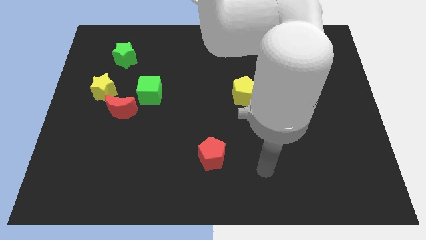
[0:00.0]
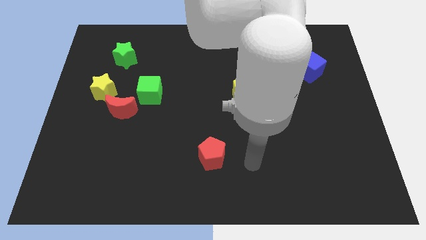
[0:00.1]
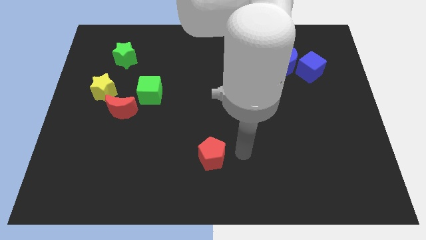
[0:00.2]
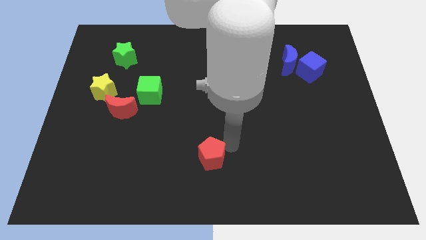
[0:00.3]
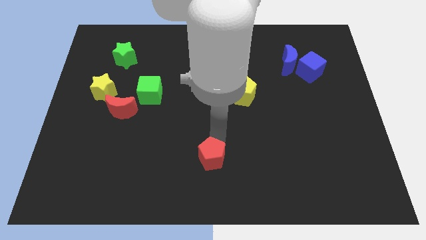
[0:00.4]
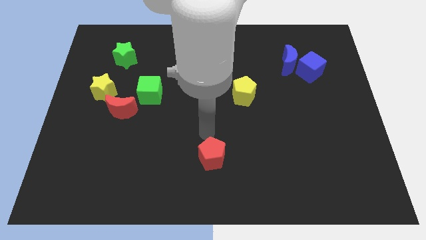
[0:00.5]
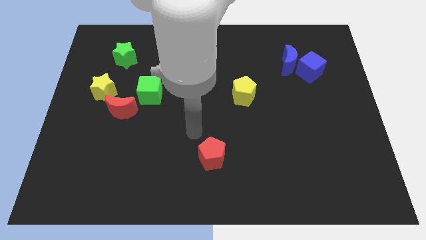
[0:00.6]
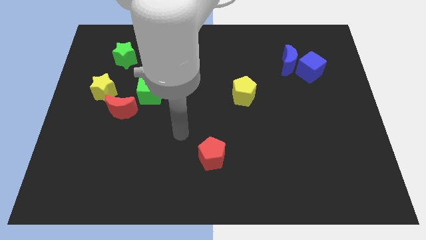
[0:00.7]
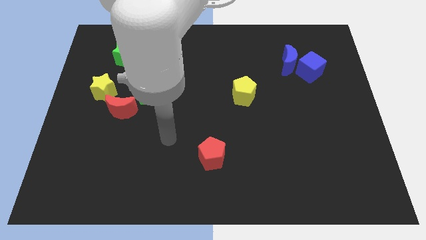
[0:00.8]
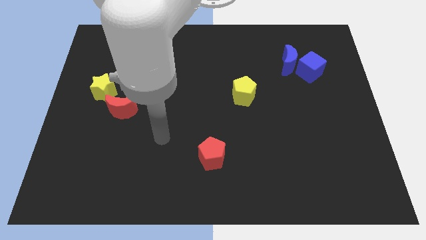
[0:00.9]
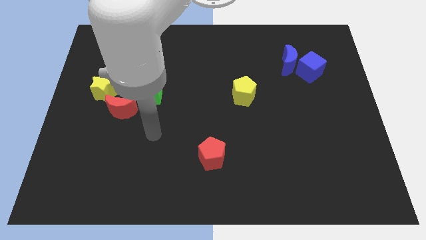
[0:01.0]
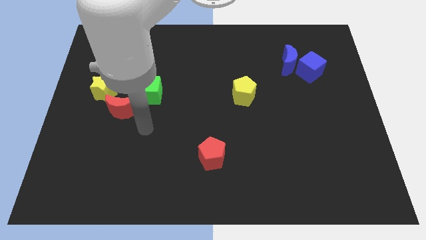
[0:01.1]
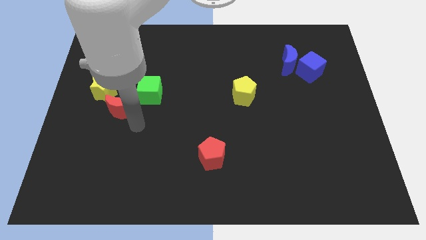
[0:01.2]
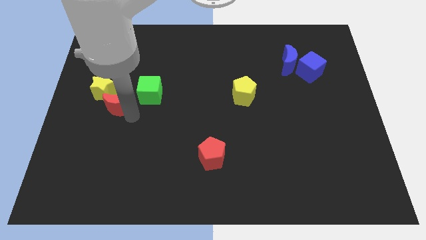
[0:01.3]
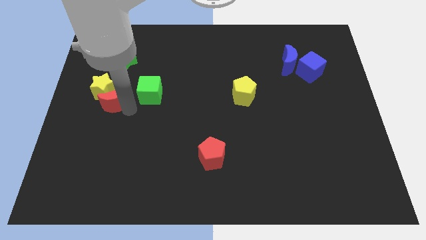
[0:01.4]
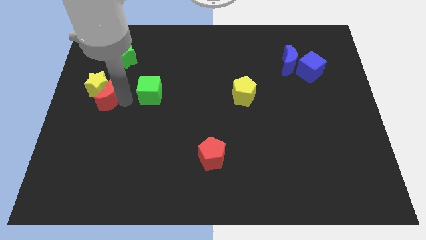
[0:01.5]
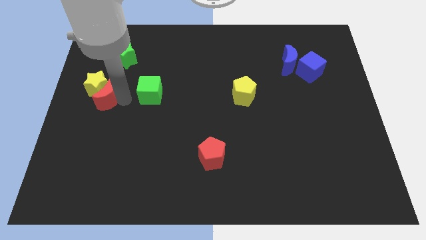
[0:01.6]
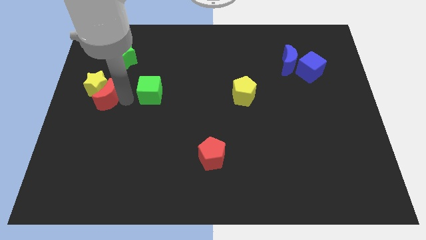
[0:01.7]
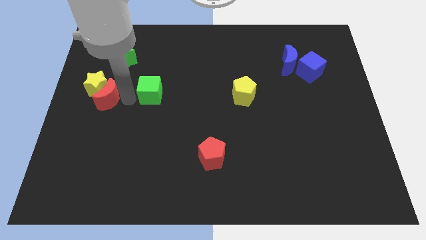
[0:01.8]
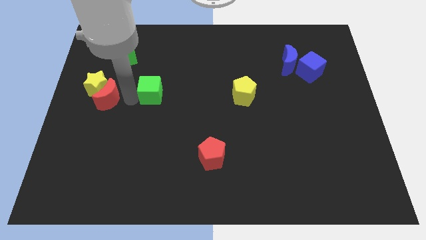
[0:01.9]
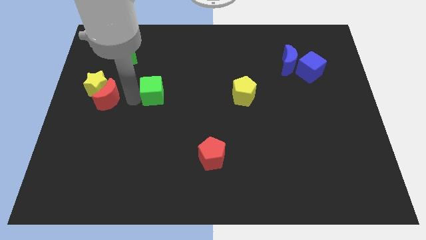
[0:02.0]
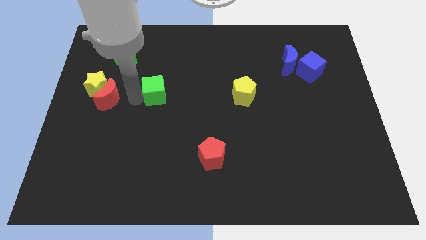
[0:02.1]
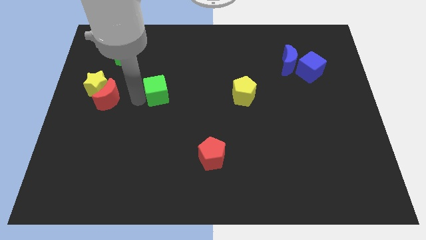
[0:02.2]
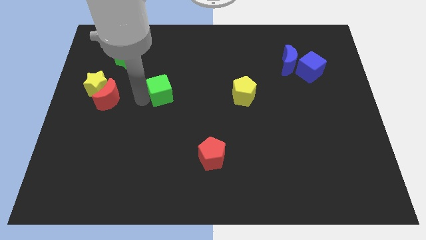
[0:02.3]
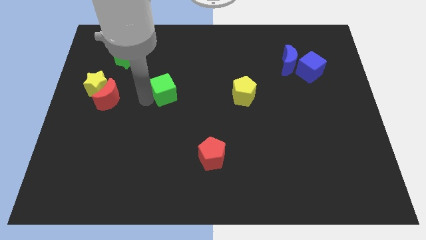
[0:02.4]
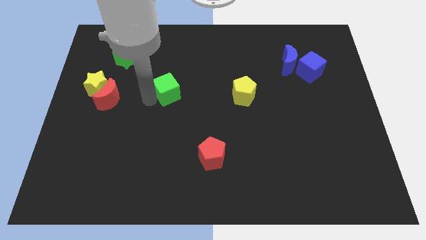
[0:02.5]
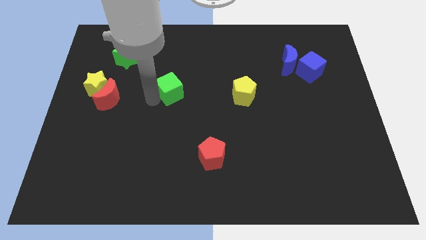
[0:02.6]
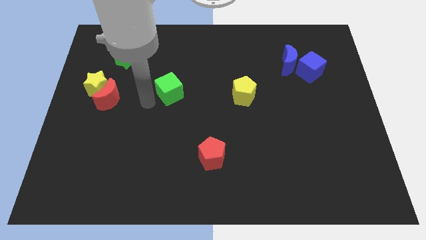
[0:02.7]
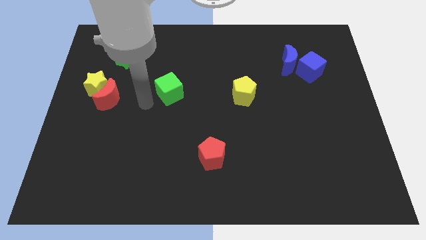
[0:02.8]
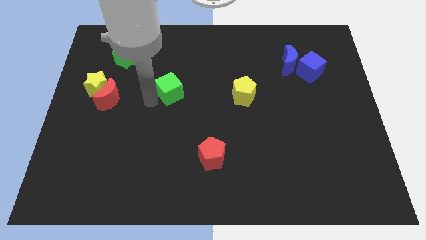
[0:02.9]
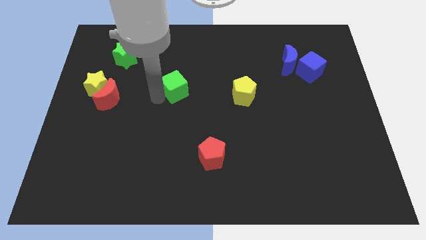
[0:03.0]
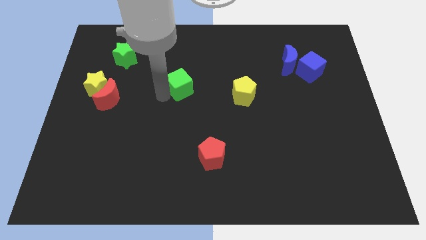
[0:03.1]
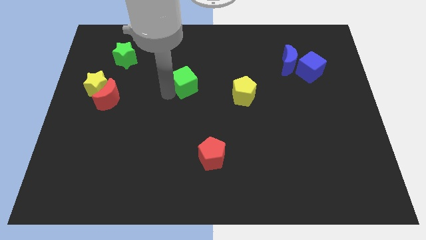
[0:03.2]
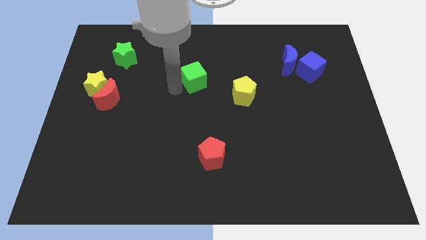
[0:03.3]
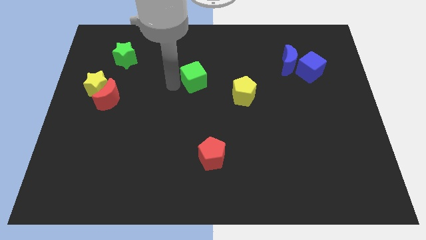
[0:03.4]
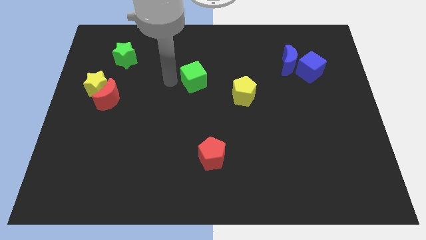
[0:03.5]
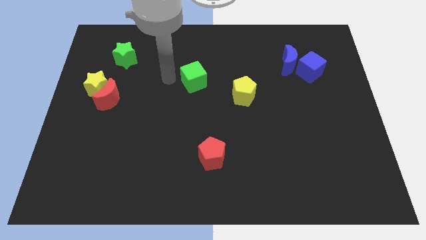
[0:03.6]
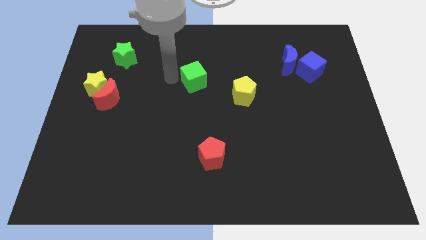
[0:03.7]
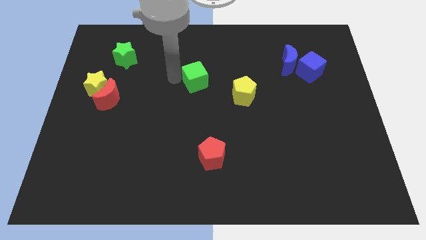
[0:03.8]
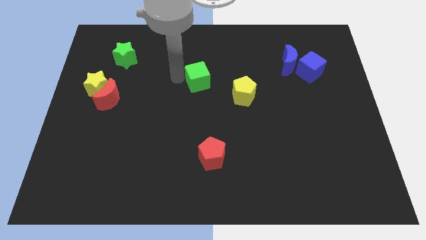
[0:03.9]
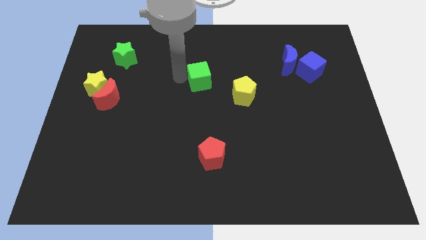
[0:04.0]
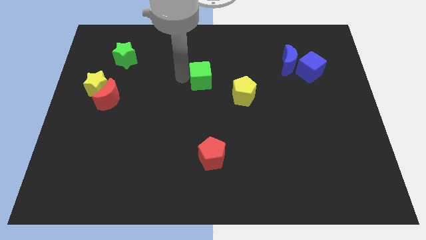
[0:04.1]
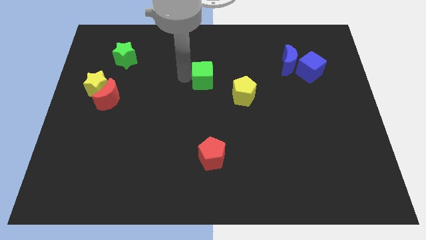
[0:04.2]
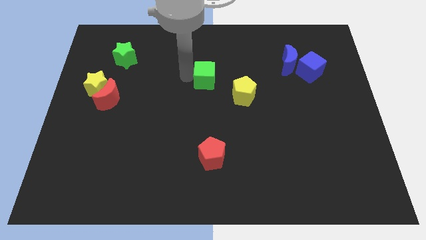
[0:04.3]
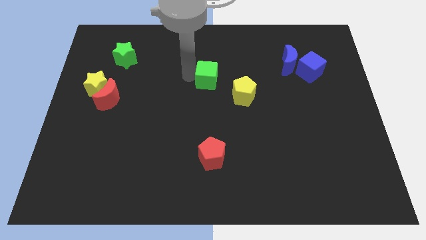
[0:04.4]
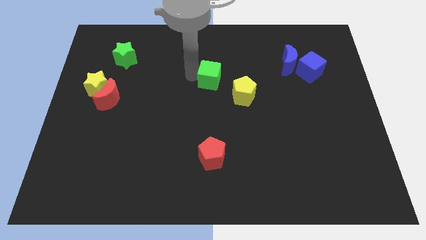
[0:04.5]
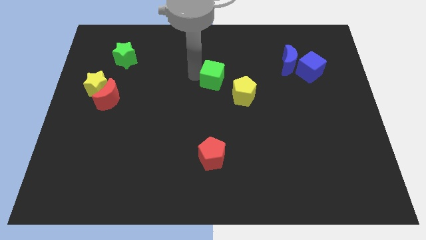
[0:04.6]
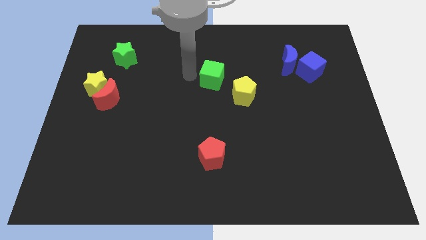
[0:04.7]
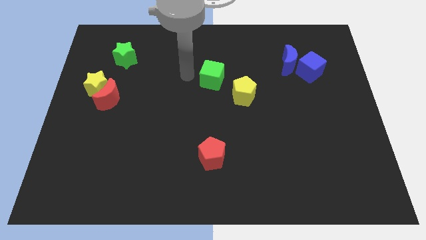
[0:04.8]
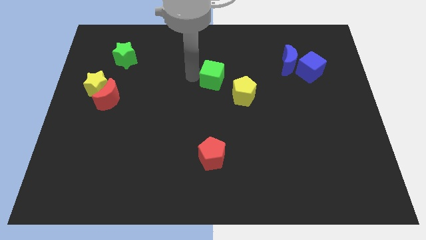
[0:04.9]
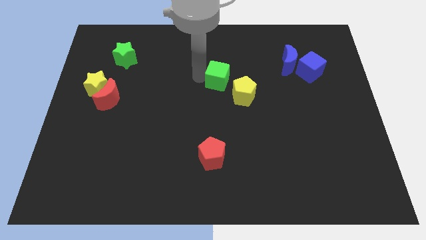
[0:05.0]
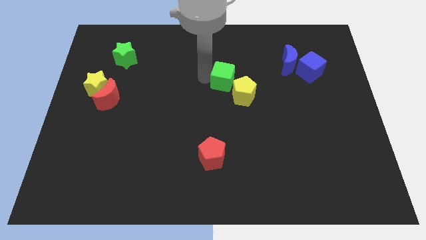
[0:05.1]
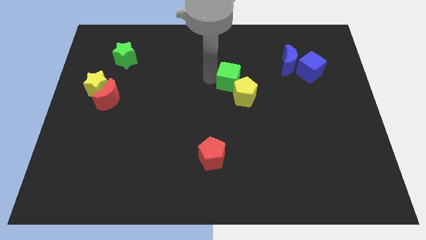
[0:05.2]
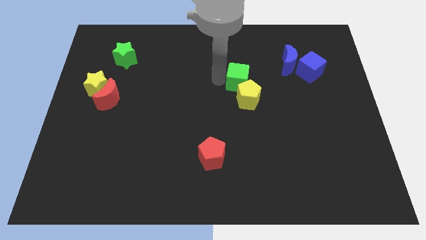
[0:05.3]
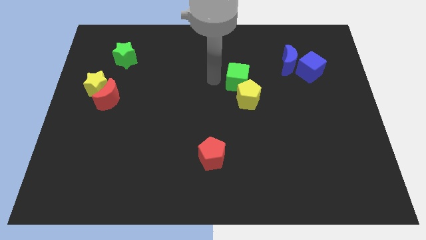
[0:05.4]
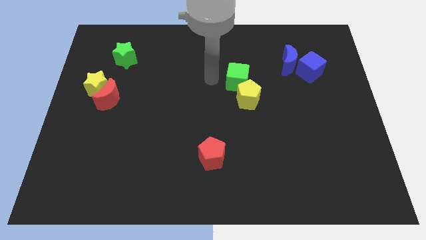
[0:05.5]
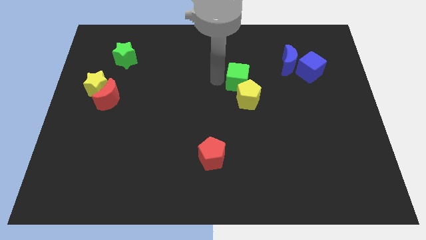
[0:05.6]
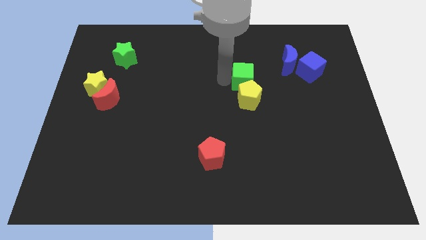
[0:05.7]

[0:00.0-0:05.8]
move the green cube to the top right of the yellow pentagon

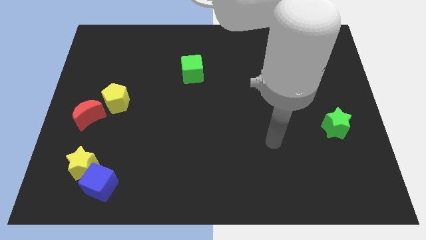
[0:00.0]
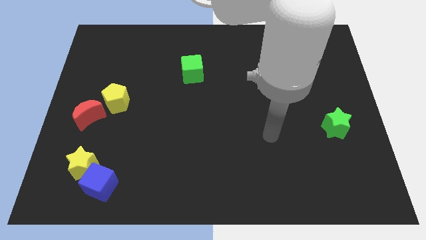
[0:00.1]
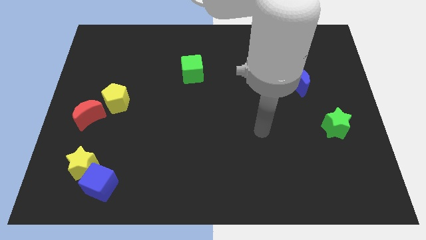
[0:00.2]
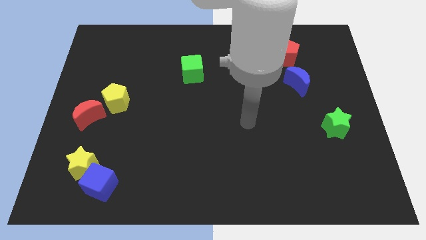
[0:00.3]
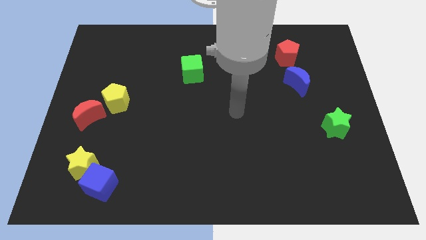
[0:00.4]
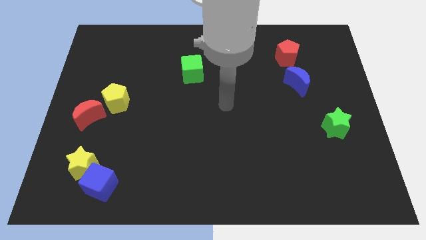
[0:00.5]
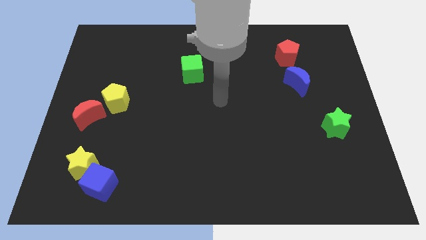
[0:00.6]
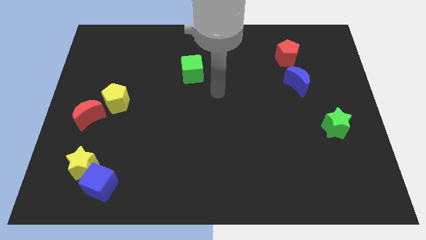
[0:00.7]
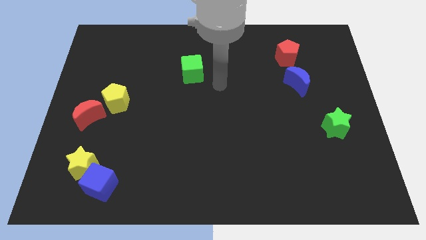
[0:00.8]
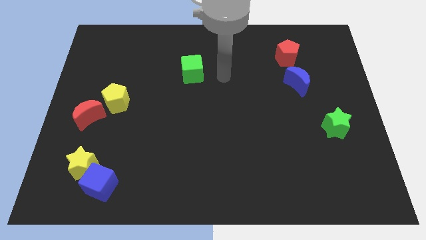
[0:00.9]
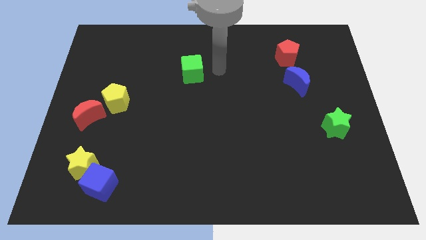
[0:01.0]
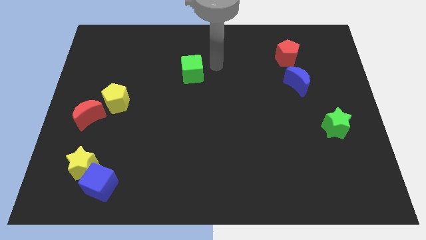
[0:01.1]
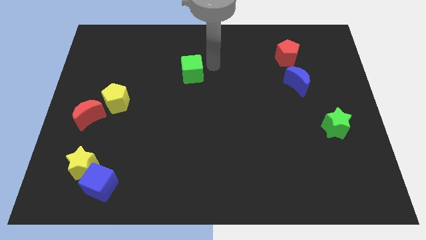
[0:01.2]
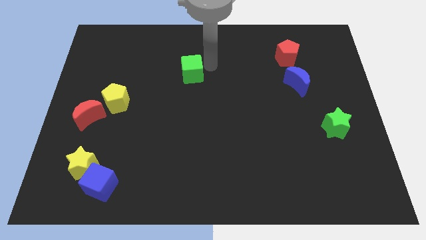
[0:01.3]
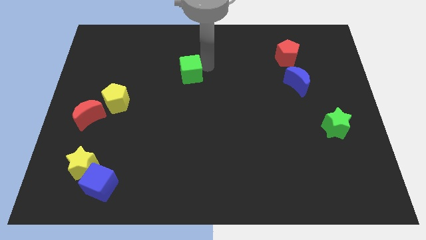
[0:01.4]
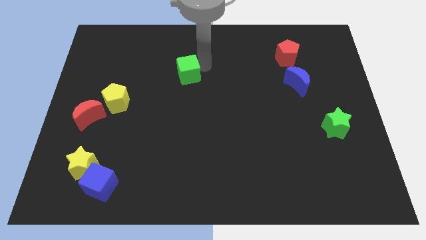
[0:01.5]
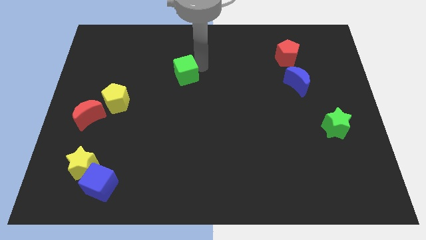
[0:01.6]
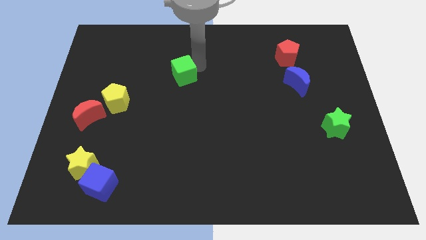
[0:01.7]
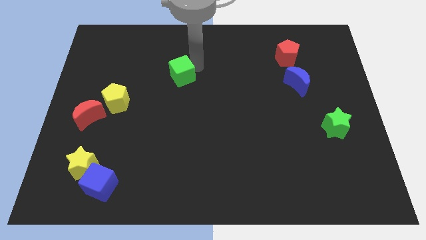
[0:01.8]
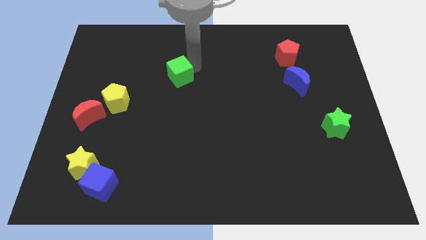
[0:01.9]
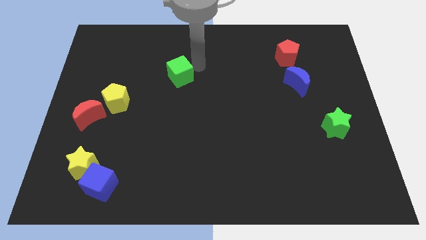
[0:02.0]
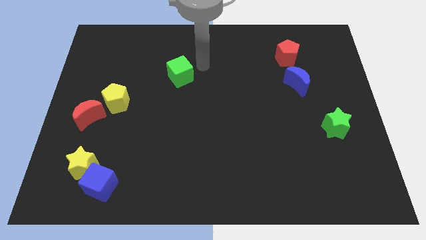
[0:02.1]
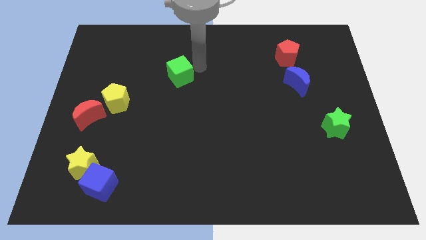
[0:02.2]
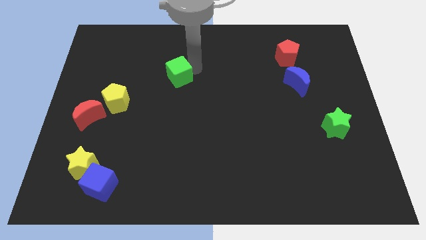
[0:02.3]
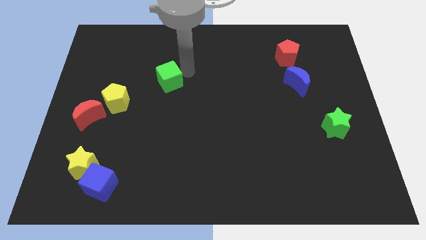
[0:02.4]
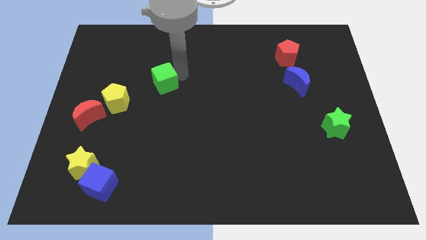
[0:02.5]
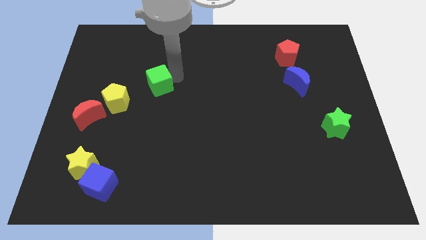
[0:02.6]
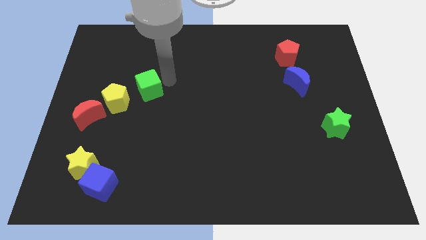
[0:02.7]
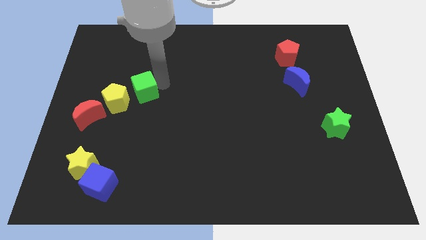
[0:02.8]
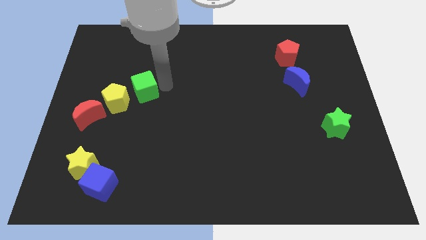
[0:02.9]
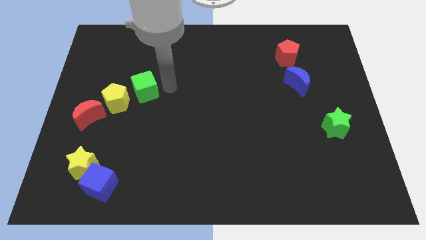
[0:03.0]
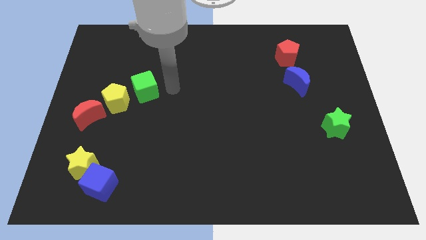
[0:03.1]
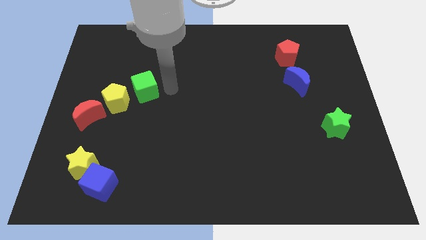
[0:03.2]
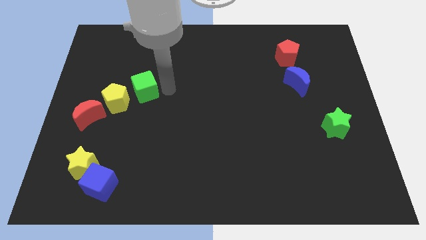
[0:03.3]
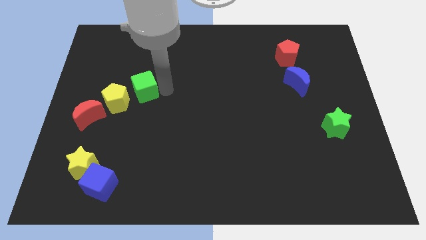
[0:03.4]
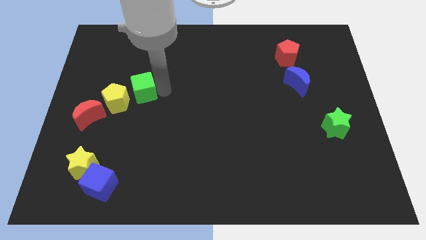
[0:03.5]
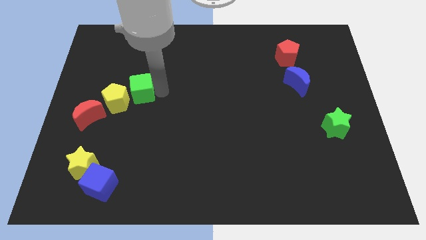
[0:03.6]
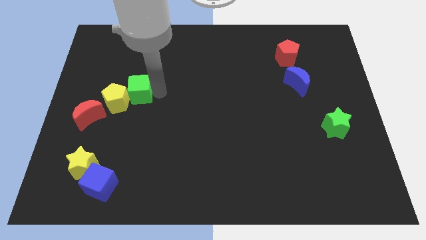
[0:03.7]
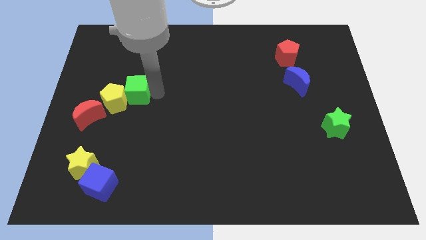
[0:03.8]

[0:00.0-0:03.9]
slide the green cube to the top right side of the red moon
